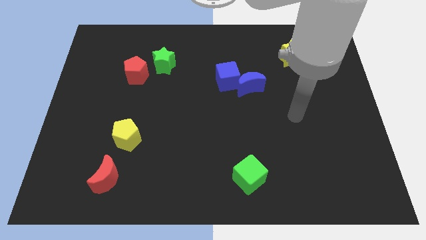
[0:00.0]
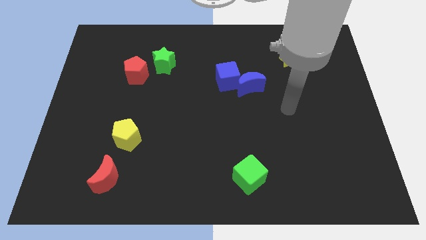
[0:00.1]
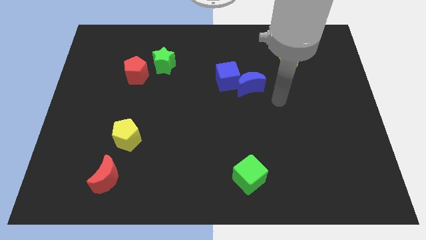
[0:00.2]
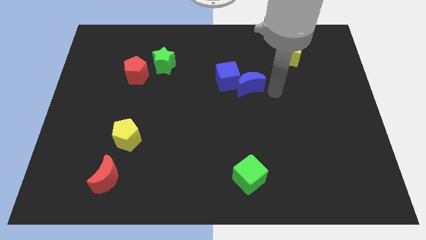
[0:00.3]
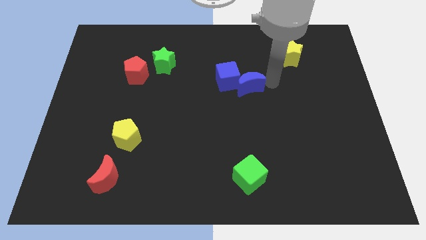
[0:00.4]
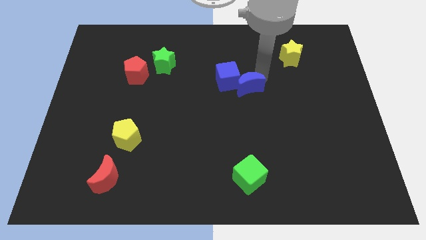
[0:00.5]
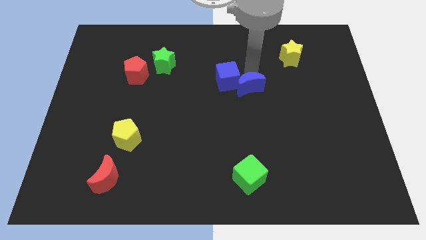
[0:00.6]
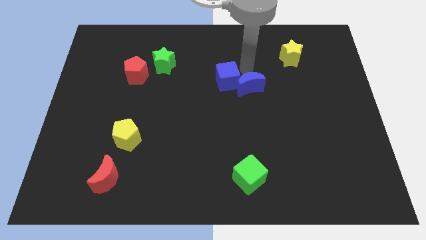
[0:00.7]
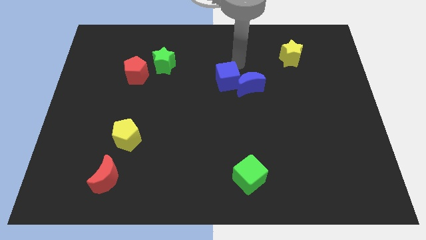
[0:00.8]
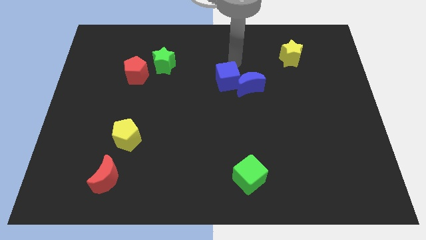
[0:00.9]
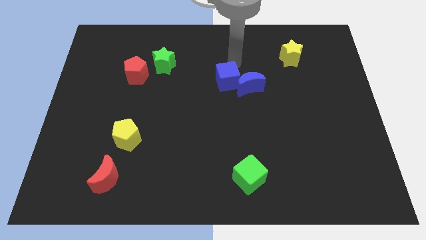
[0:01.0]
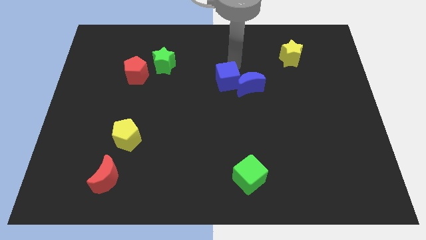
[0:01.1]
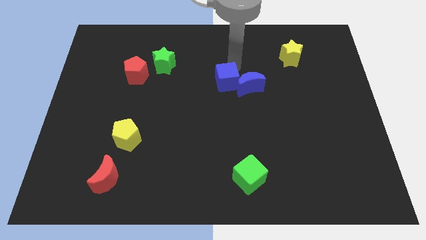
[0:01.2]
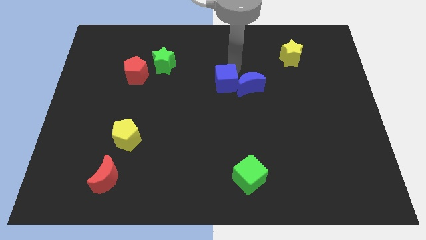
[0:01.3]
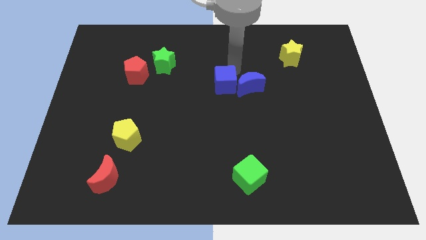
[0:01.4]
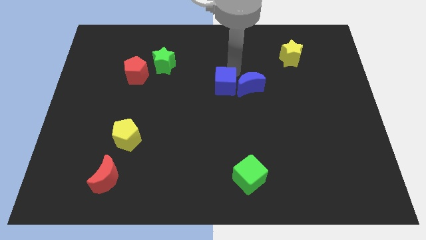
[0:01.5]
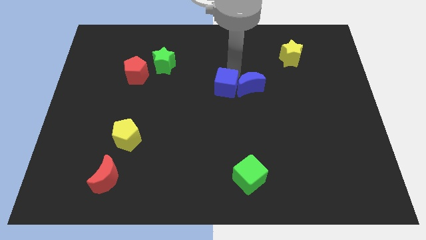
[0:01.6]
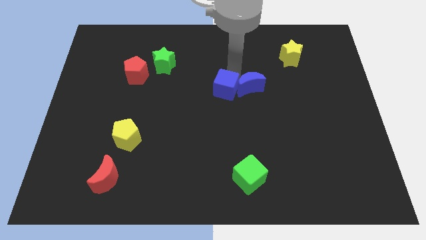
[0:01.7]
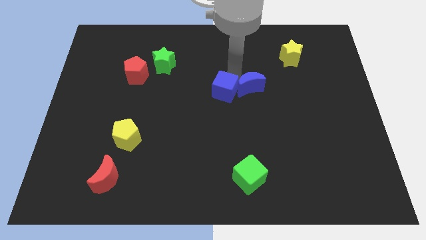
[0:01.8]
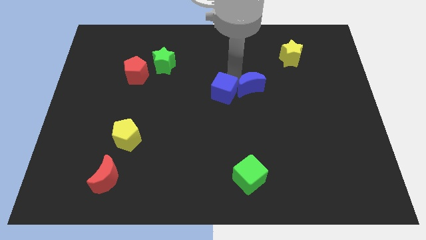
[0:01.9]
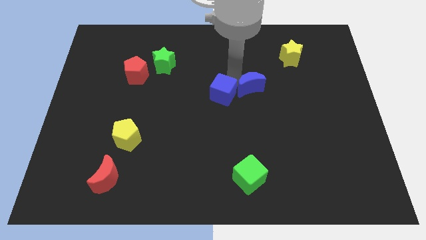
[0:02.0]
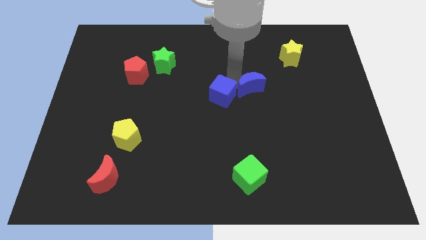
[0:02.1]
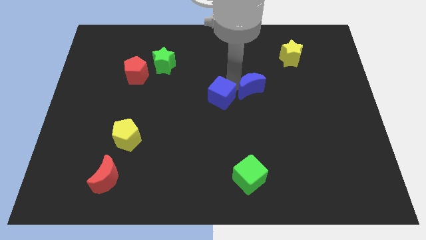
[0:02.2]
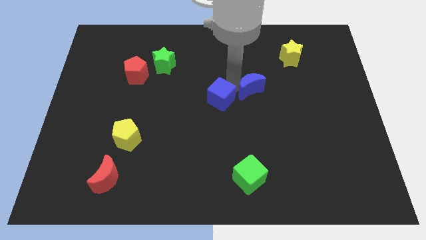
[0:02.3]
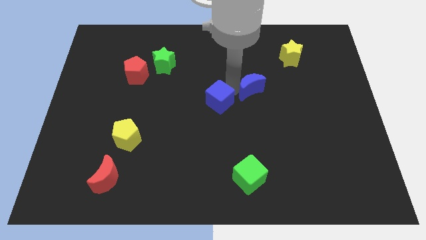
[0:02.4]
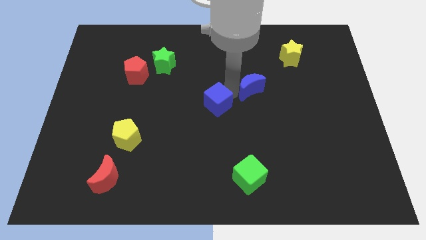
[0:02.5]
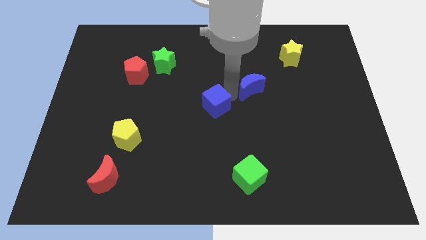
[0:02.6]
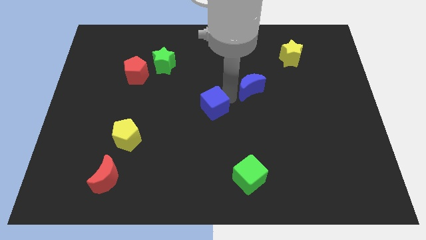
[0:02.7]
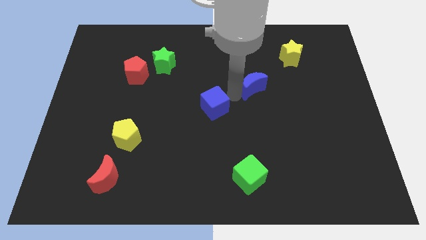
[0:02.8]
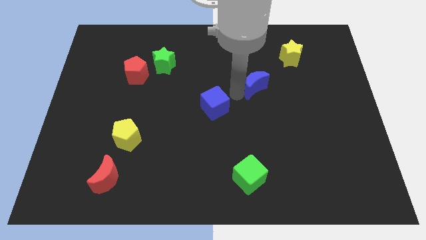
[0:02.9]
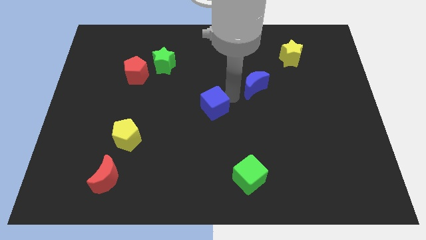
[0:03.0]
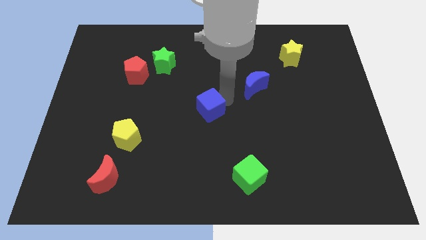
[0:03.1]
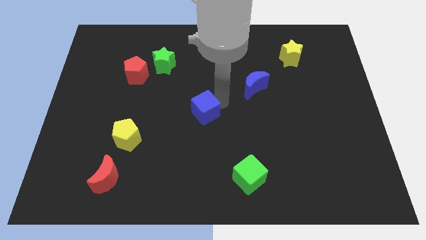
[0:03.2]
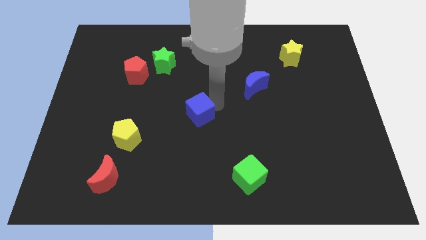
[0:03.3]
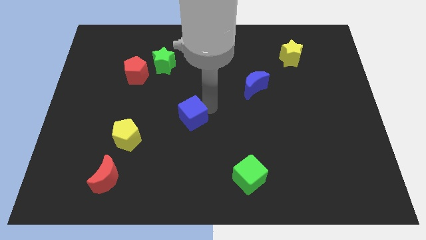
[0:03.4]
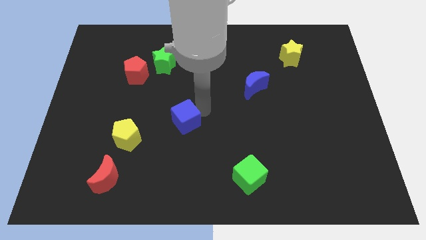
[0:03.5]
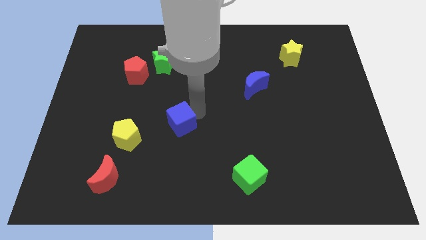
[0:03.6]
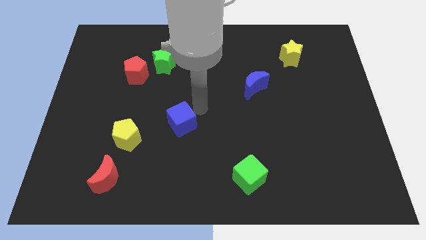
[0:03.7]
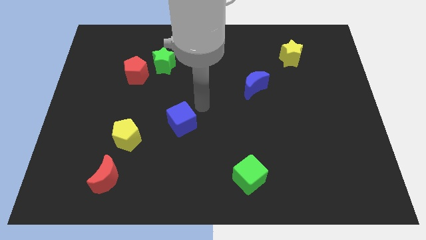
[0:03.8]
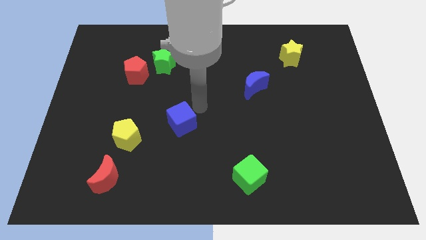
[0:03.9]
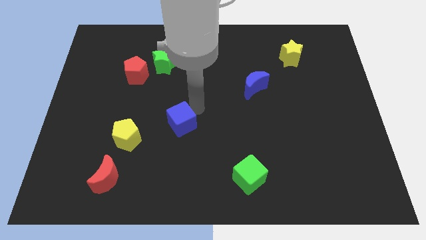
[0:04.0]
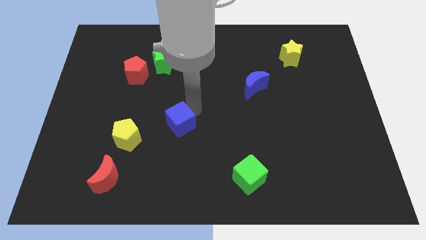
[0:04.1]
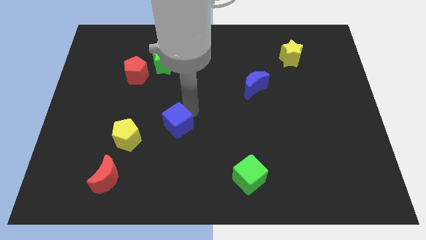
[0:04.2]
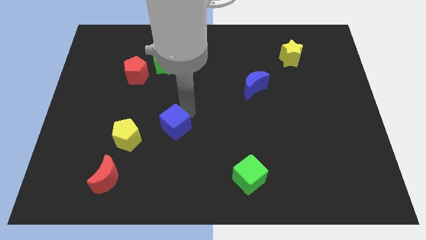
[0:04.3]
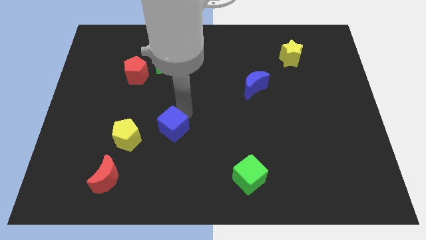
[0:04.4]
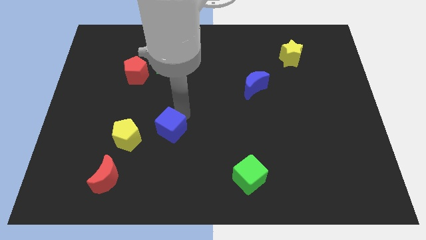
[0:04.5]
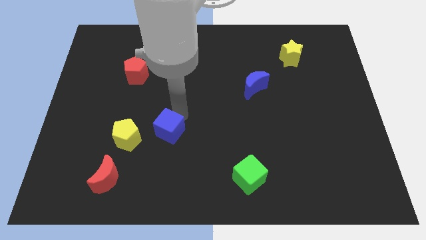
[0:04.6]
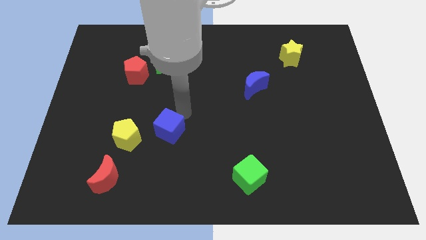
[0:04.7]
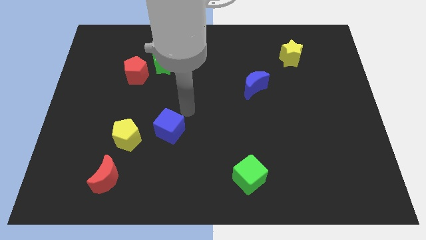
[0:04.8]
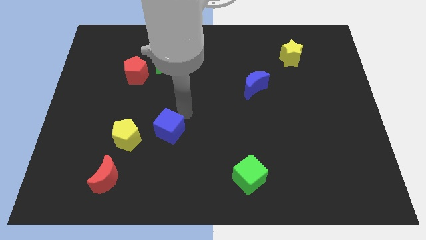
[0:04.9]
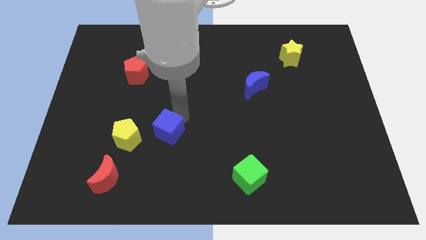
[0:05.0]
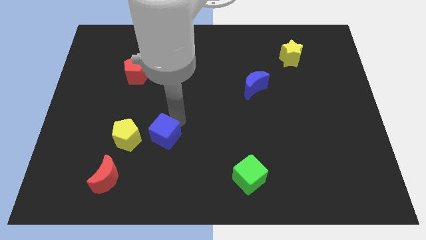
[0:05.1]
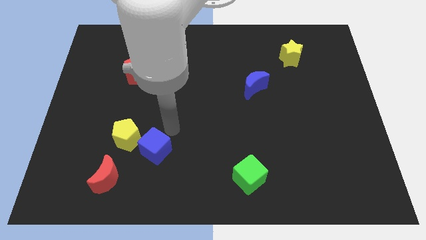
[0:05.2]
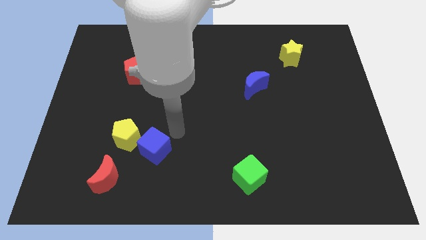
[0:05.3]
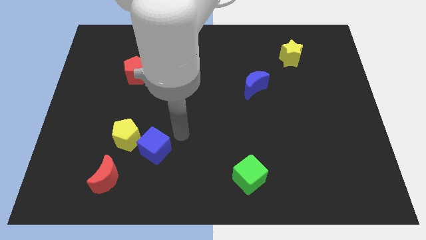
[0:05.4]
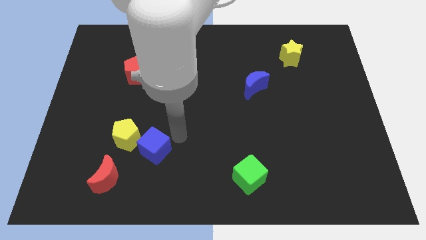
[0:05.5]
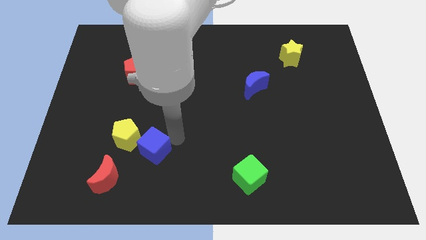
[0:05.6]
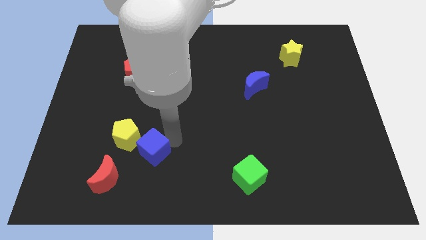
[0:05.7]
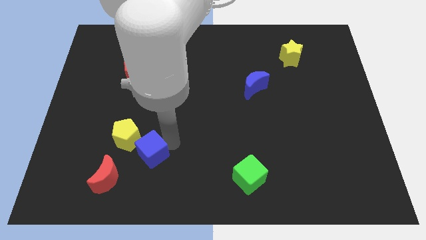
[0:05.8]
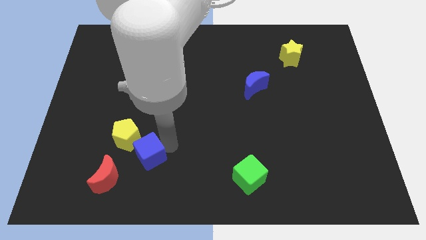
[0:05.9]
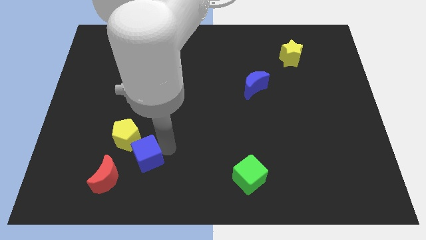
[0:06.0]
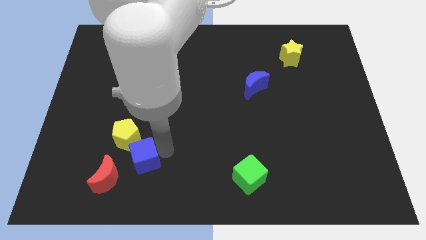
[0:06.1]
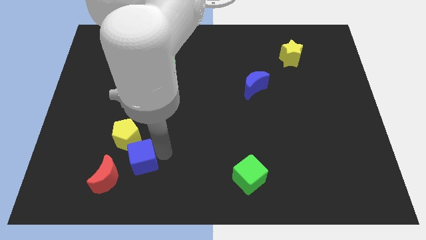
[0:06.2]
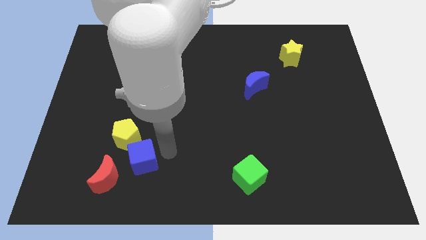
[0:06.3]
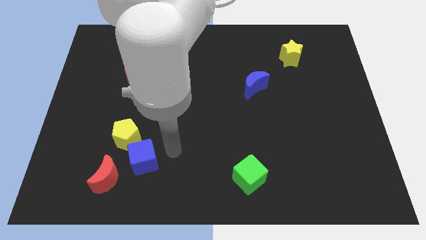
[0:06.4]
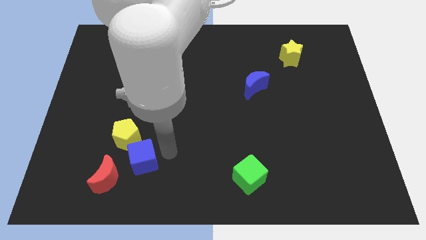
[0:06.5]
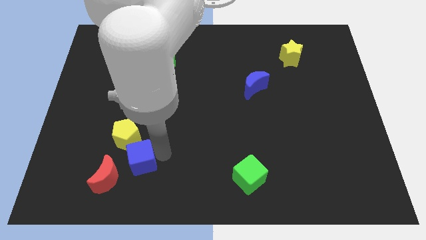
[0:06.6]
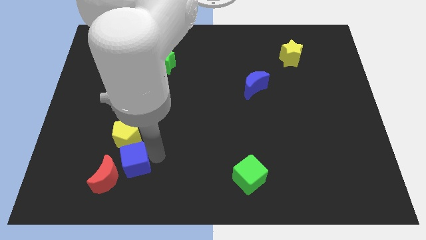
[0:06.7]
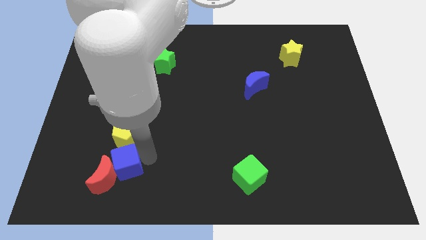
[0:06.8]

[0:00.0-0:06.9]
move the blue cube towards the red moon
